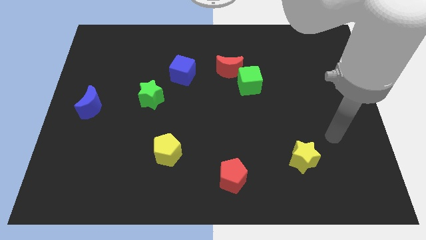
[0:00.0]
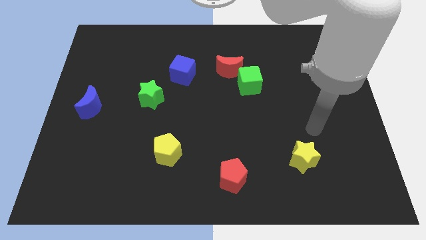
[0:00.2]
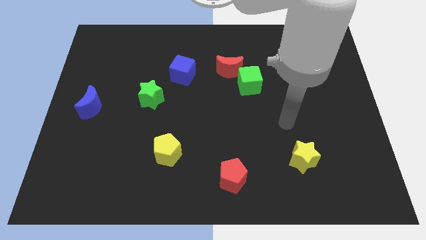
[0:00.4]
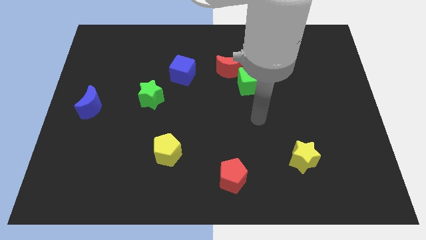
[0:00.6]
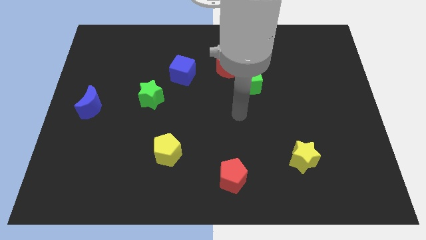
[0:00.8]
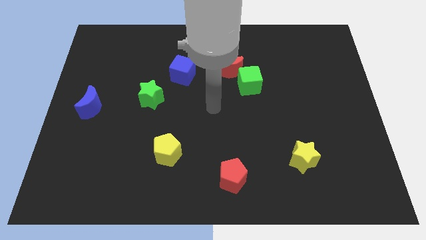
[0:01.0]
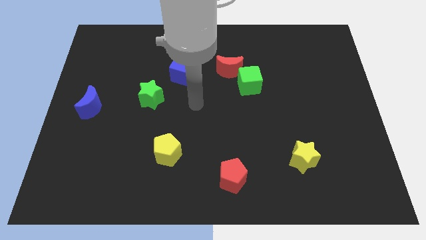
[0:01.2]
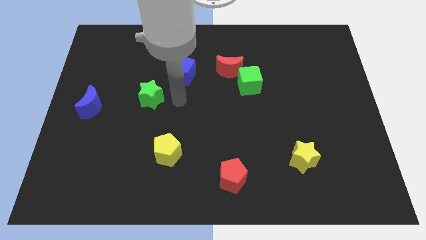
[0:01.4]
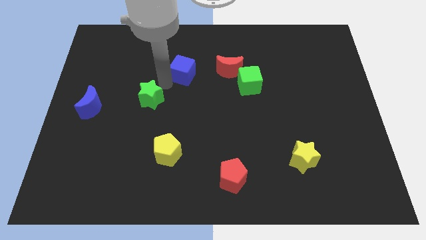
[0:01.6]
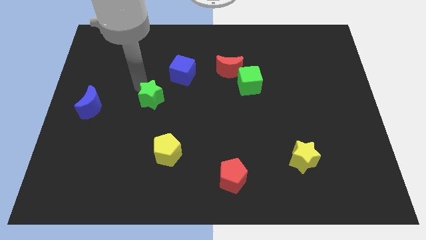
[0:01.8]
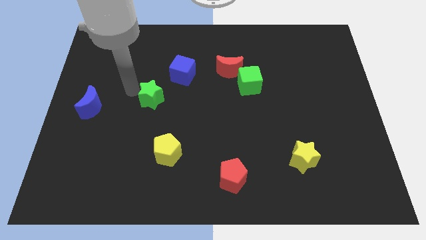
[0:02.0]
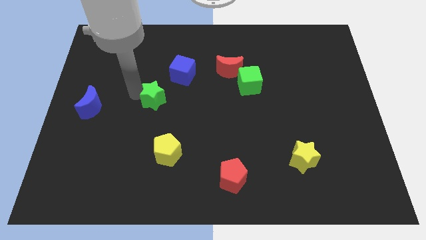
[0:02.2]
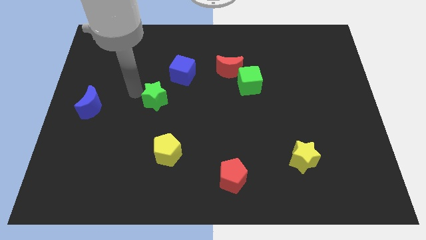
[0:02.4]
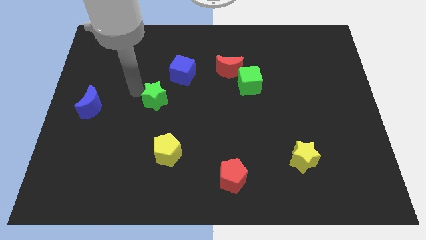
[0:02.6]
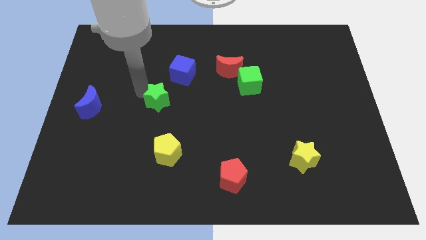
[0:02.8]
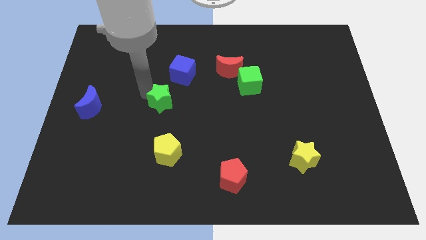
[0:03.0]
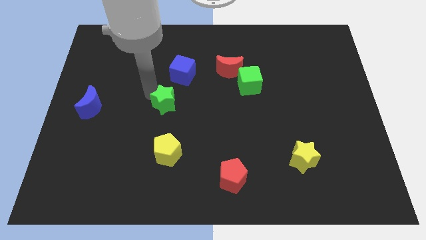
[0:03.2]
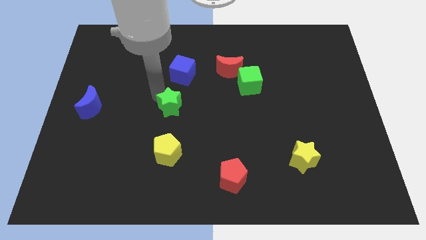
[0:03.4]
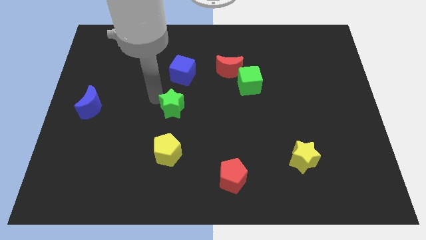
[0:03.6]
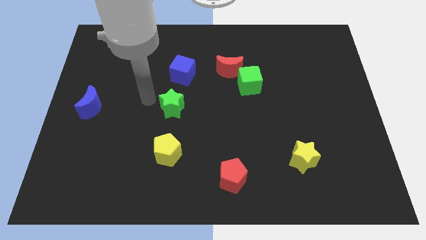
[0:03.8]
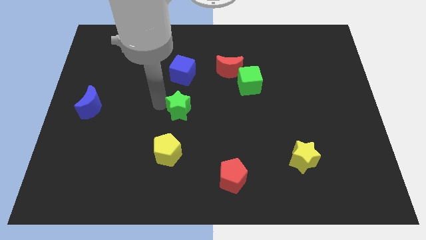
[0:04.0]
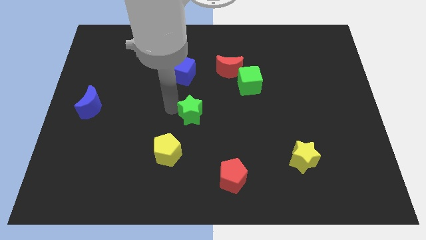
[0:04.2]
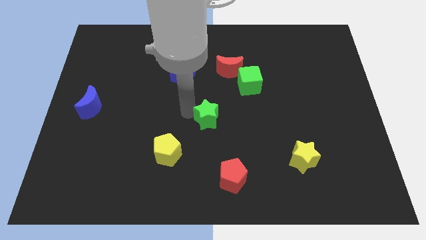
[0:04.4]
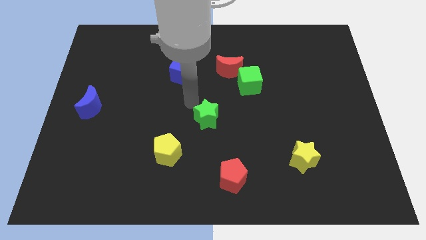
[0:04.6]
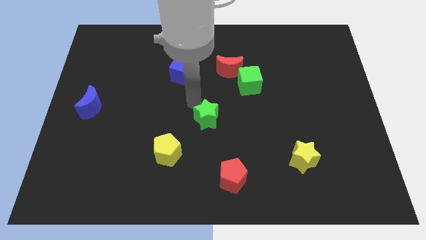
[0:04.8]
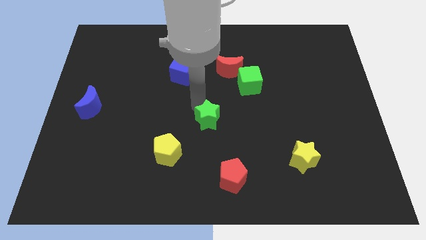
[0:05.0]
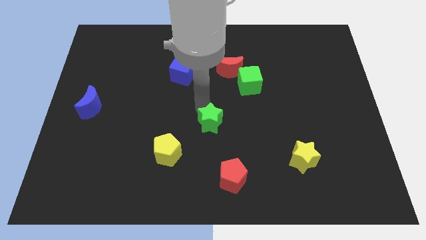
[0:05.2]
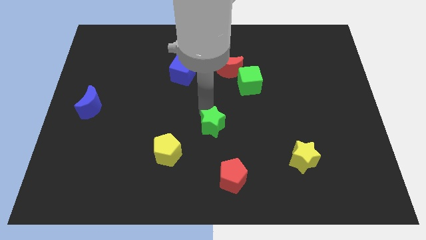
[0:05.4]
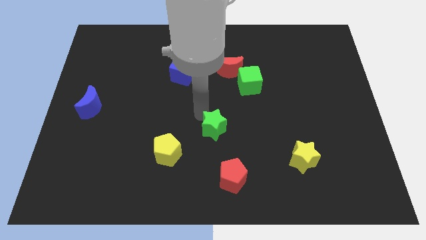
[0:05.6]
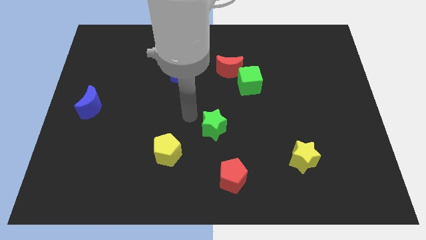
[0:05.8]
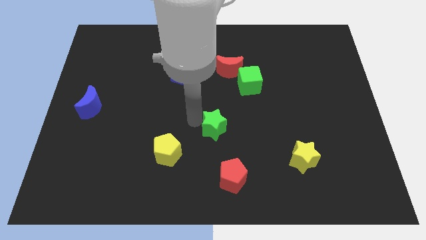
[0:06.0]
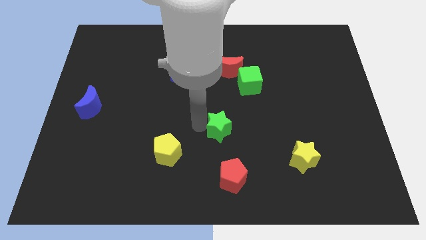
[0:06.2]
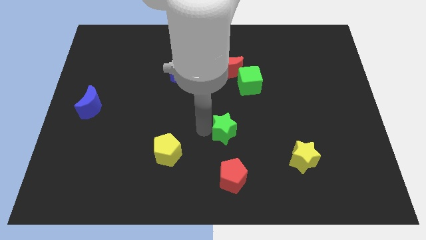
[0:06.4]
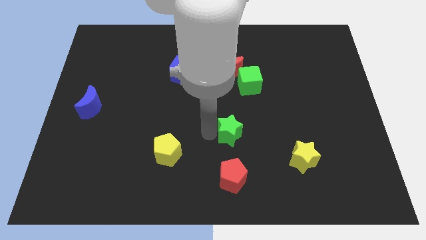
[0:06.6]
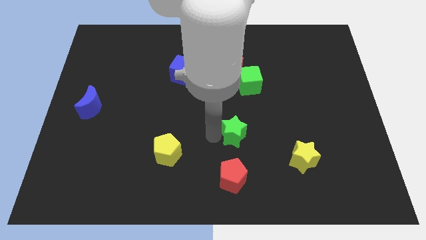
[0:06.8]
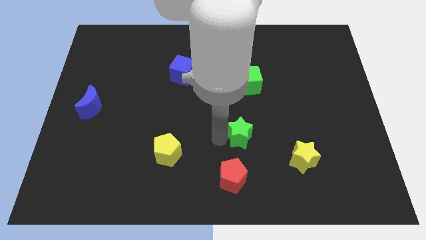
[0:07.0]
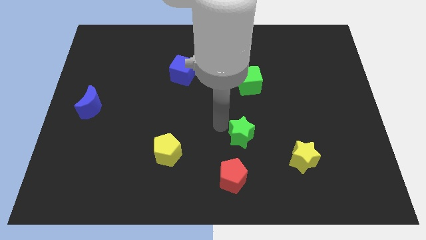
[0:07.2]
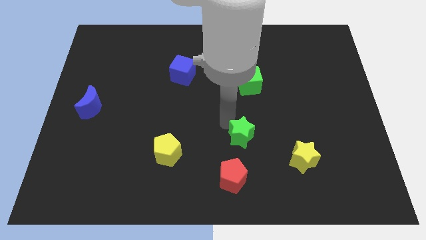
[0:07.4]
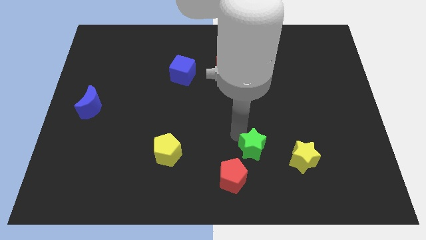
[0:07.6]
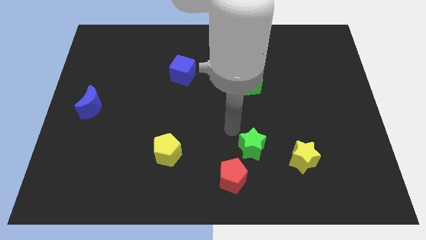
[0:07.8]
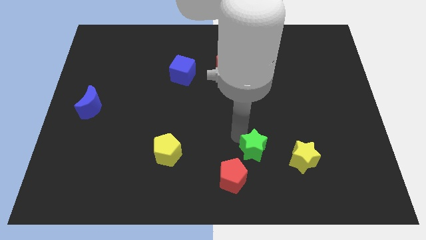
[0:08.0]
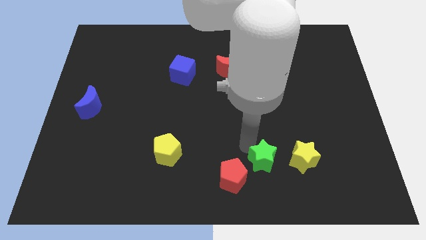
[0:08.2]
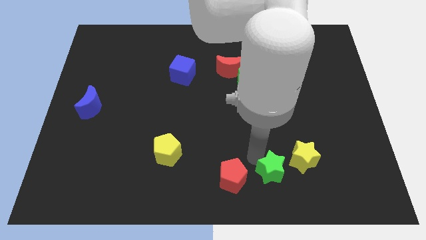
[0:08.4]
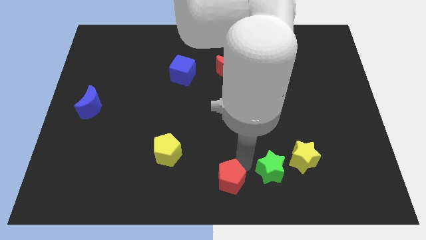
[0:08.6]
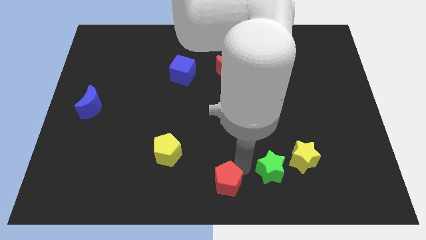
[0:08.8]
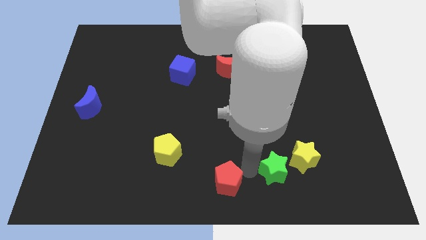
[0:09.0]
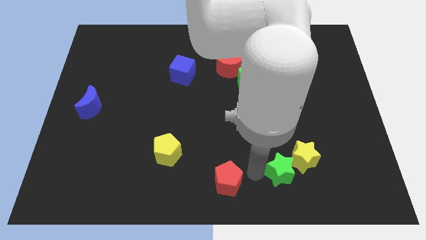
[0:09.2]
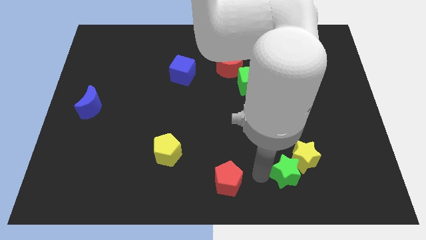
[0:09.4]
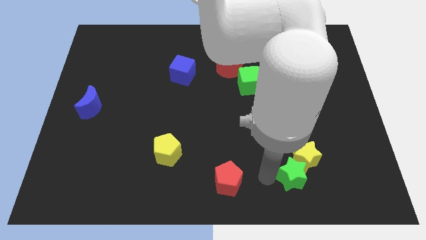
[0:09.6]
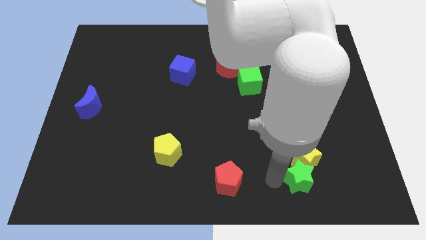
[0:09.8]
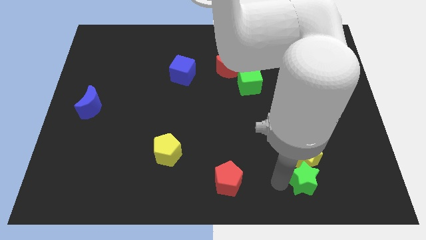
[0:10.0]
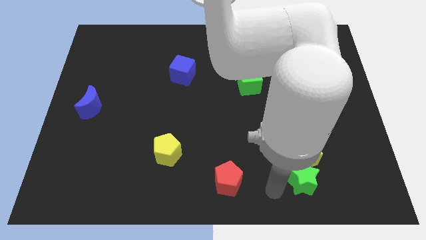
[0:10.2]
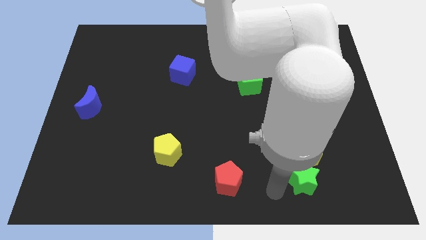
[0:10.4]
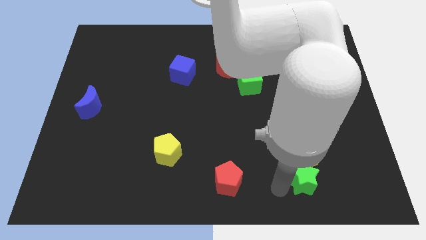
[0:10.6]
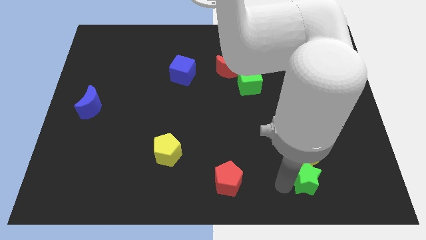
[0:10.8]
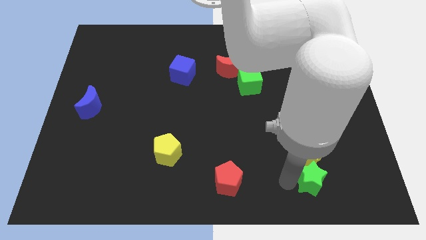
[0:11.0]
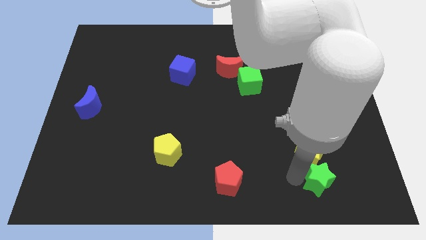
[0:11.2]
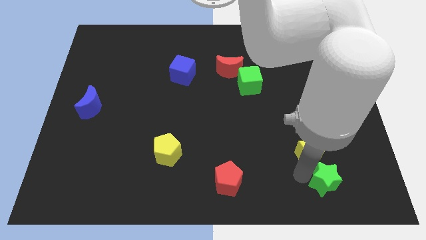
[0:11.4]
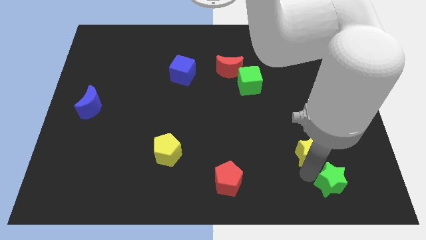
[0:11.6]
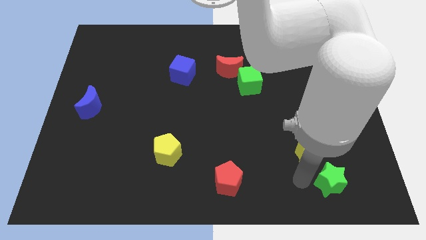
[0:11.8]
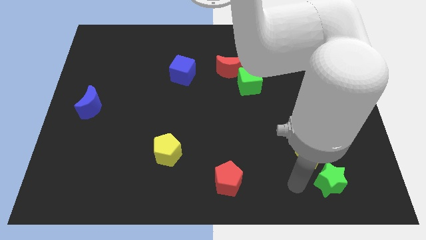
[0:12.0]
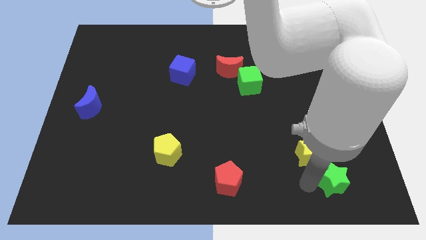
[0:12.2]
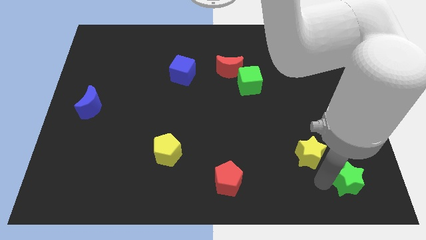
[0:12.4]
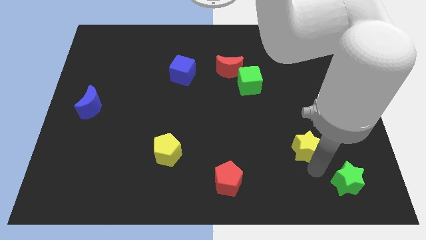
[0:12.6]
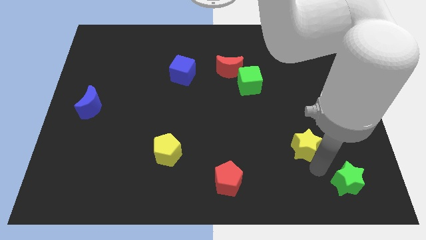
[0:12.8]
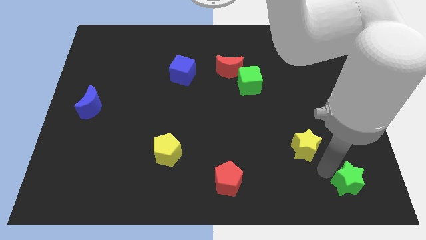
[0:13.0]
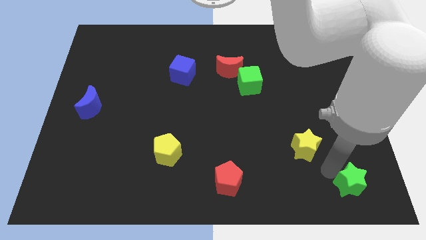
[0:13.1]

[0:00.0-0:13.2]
move the green star to the lower right corner
